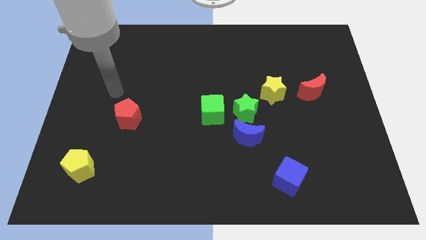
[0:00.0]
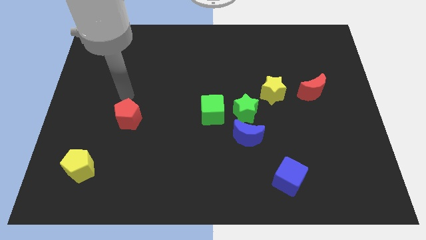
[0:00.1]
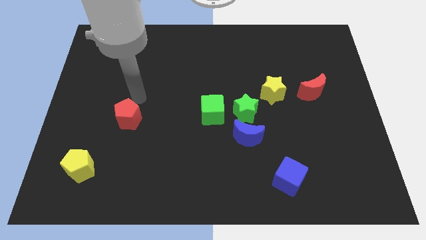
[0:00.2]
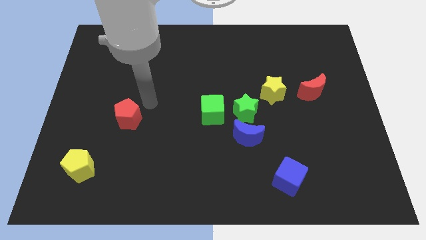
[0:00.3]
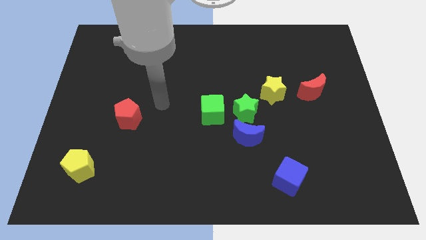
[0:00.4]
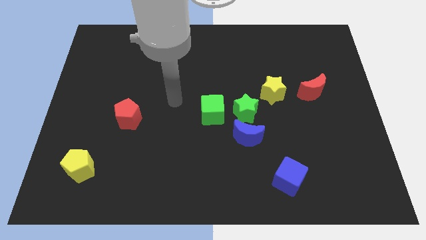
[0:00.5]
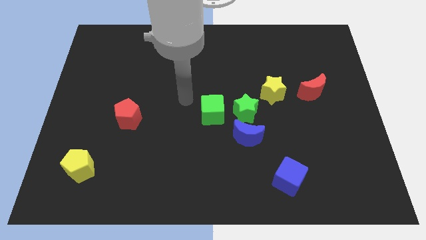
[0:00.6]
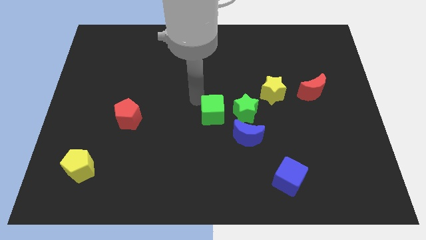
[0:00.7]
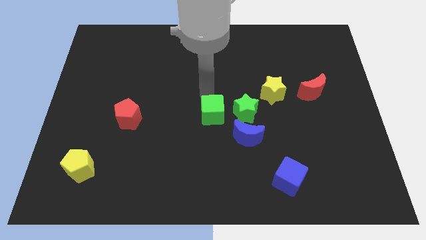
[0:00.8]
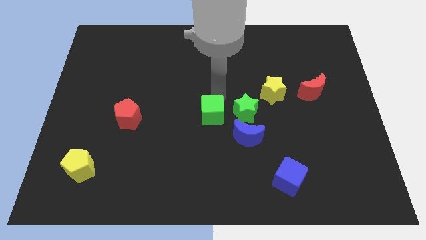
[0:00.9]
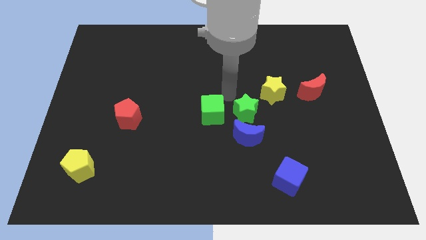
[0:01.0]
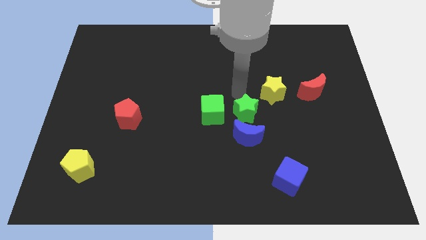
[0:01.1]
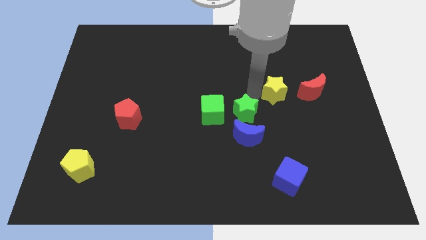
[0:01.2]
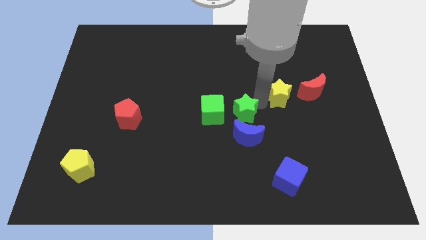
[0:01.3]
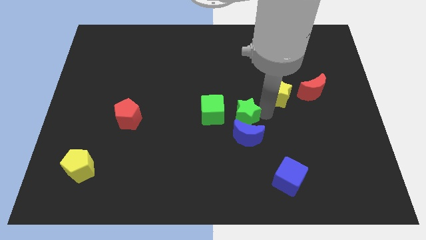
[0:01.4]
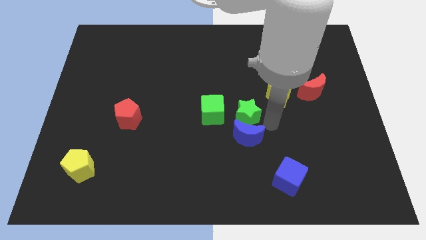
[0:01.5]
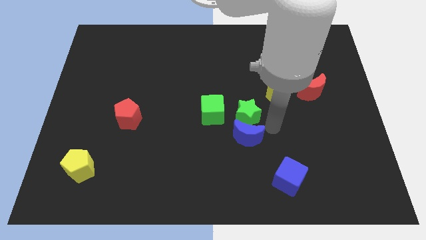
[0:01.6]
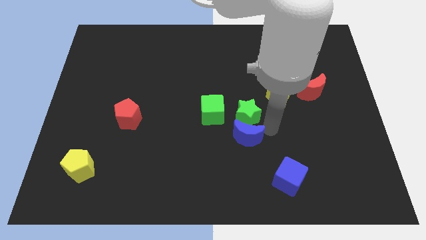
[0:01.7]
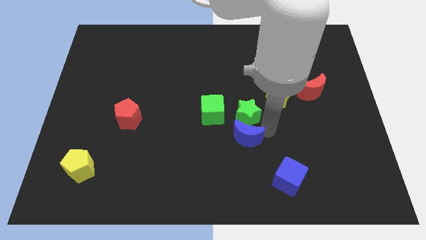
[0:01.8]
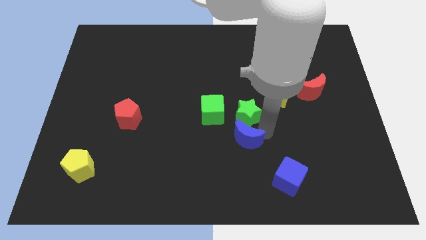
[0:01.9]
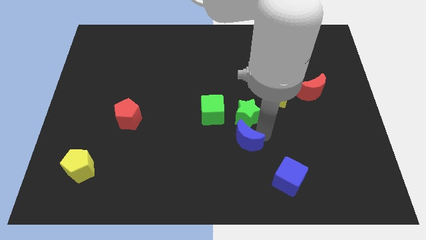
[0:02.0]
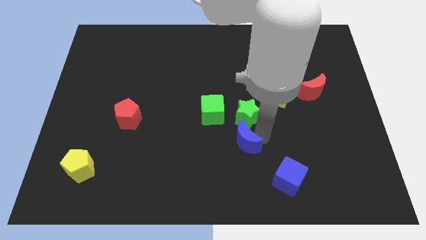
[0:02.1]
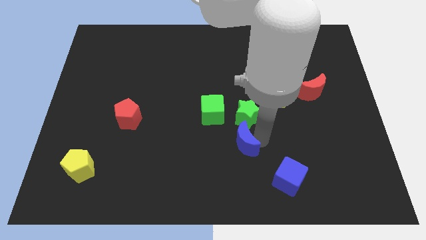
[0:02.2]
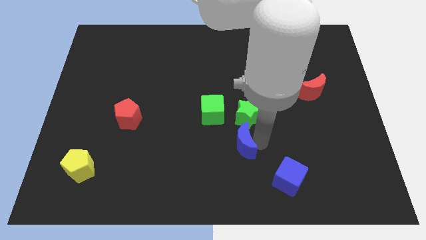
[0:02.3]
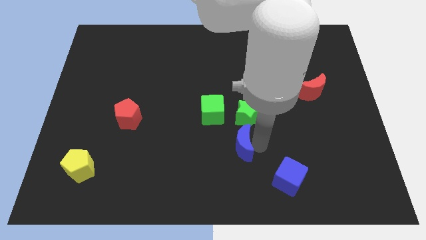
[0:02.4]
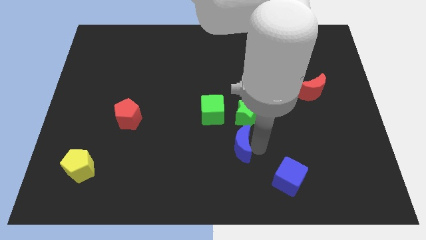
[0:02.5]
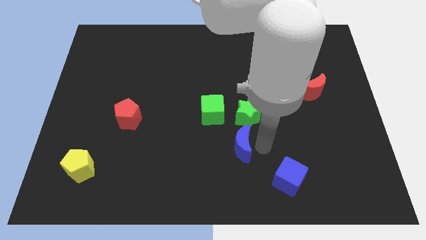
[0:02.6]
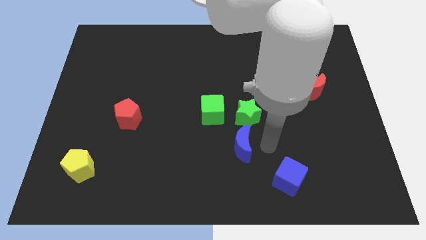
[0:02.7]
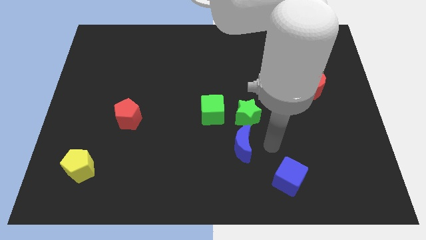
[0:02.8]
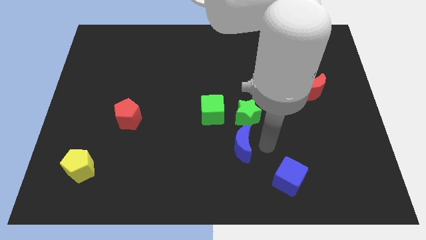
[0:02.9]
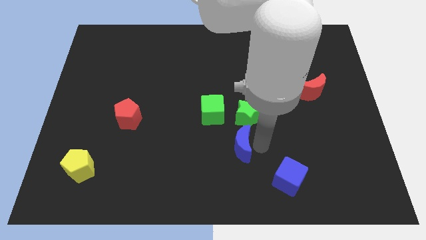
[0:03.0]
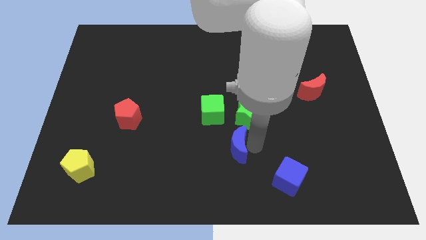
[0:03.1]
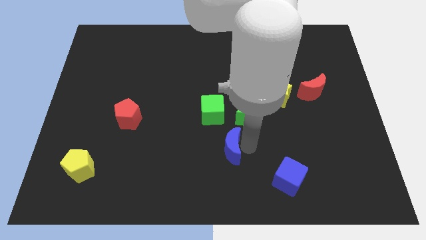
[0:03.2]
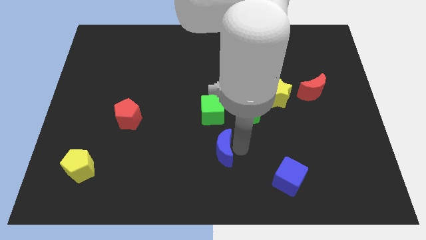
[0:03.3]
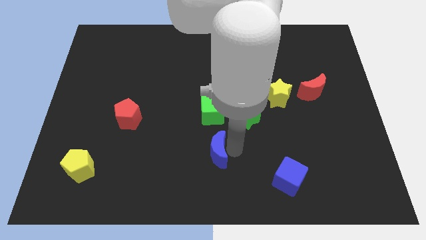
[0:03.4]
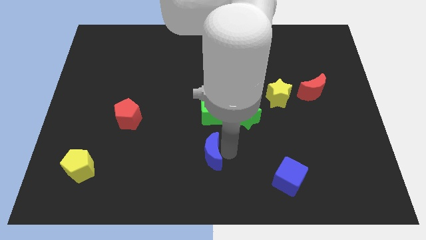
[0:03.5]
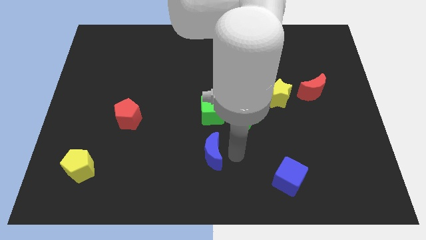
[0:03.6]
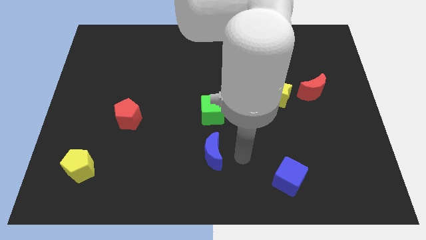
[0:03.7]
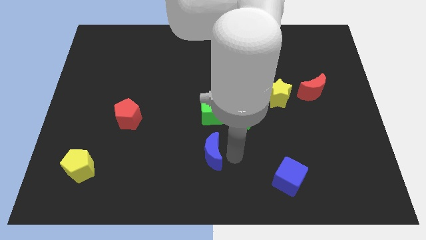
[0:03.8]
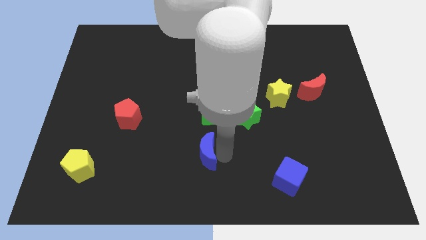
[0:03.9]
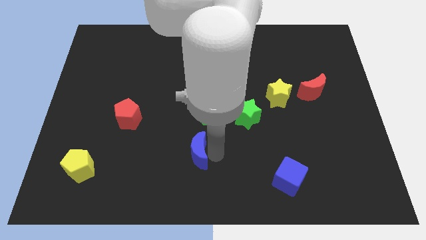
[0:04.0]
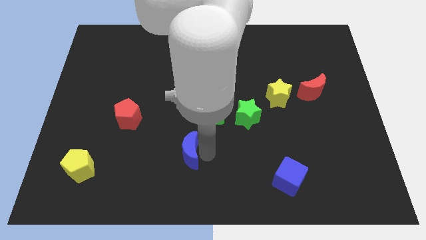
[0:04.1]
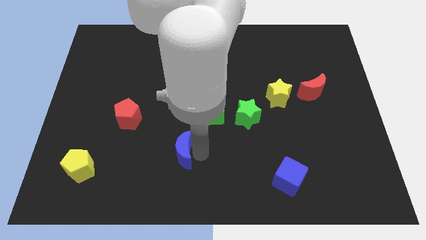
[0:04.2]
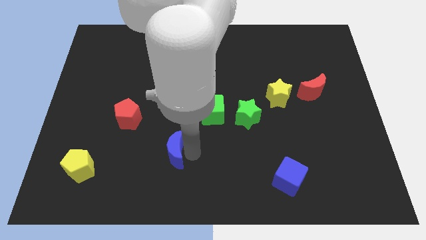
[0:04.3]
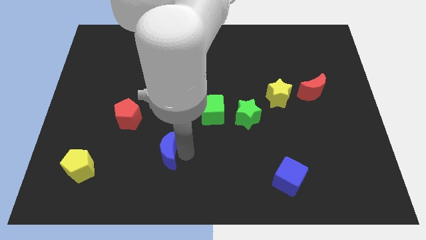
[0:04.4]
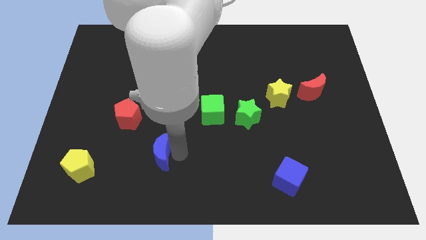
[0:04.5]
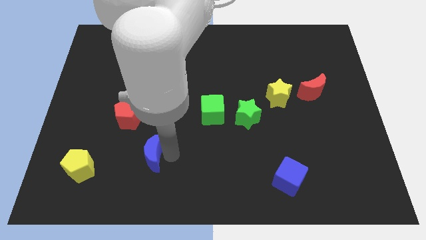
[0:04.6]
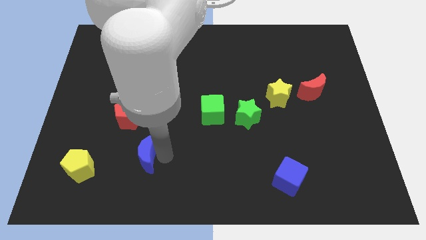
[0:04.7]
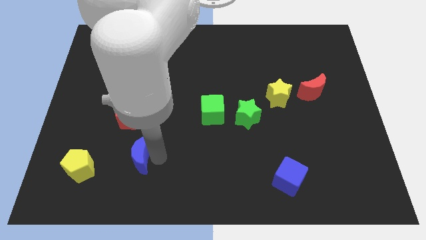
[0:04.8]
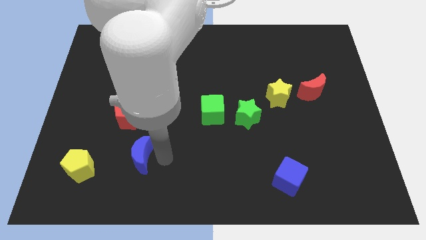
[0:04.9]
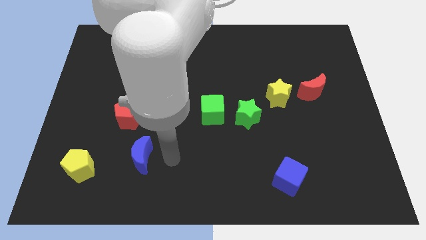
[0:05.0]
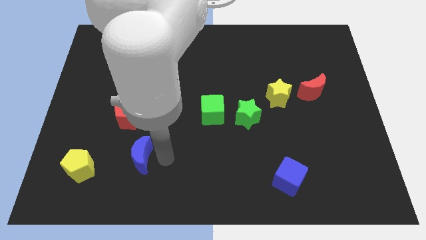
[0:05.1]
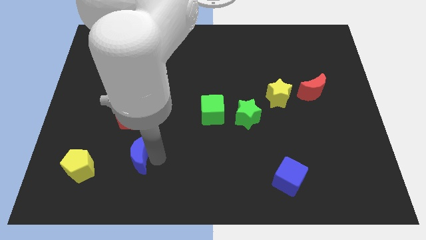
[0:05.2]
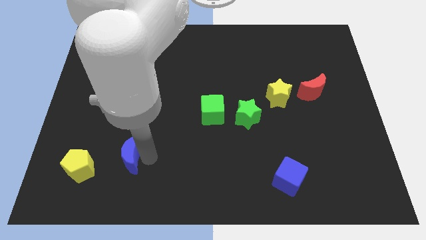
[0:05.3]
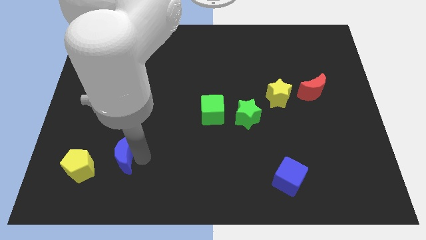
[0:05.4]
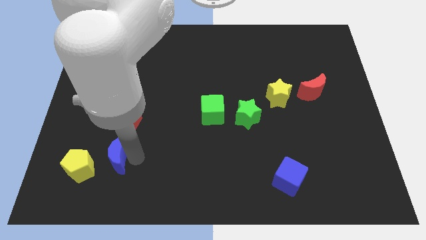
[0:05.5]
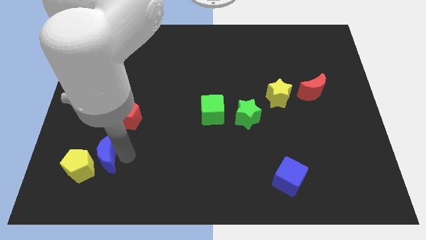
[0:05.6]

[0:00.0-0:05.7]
put the blue moon to the yellow pentagon

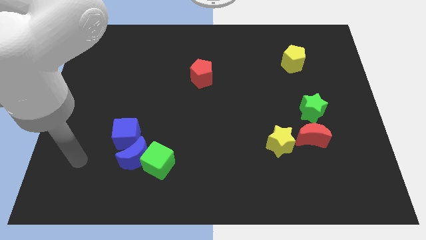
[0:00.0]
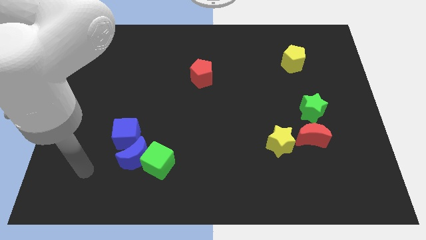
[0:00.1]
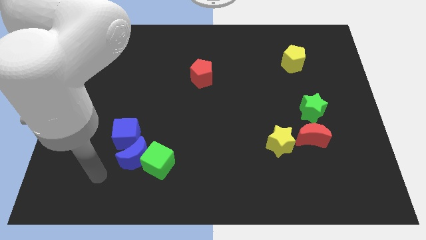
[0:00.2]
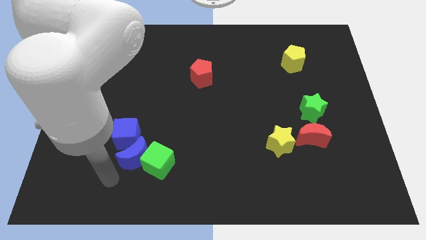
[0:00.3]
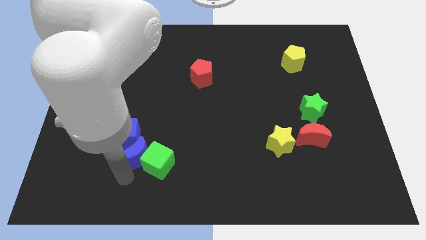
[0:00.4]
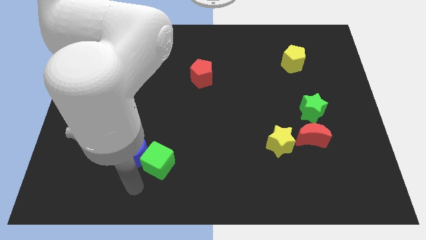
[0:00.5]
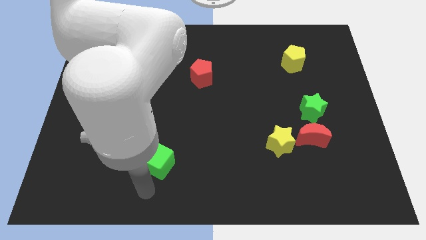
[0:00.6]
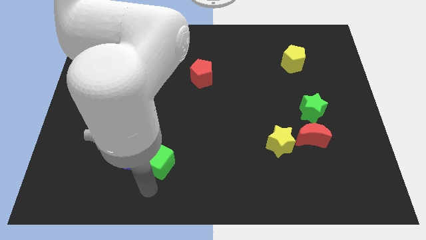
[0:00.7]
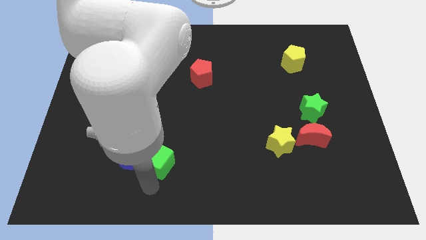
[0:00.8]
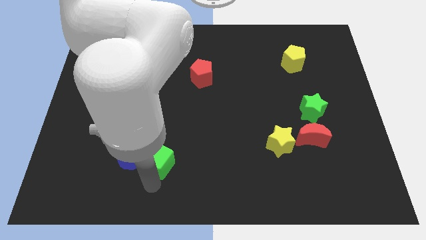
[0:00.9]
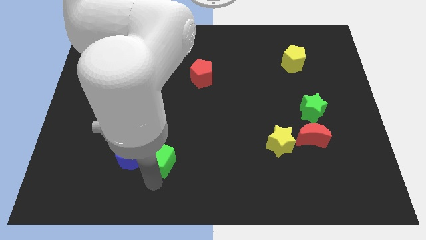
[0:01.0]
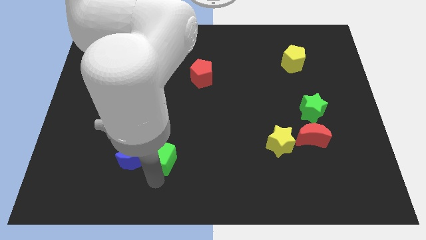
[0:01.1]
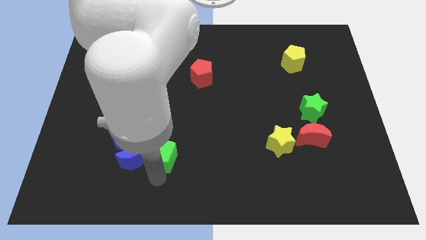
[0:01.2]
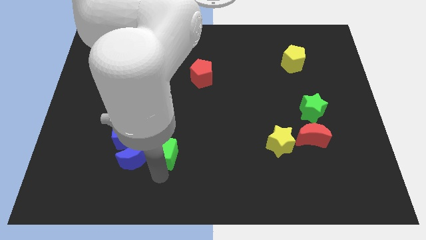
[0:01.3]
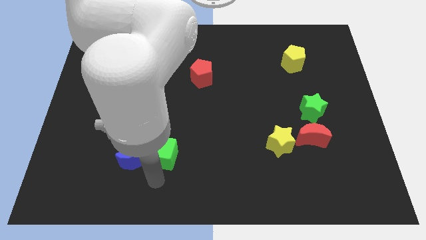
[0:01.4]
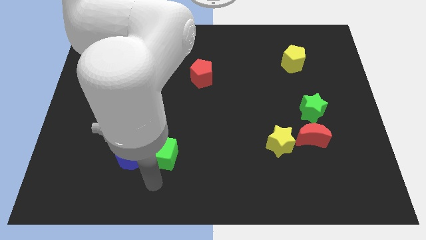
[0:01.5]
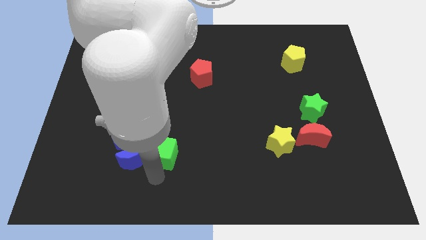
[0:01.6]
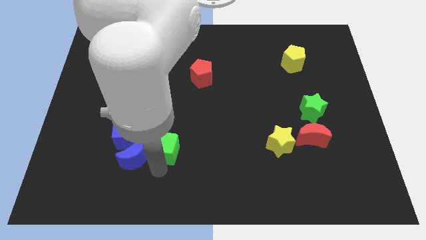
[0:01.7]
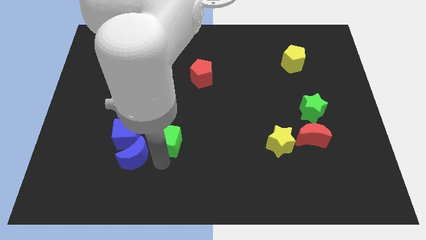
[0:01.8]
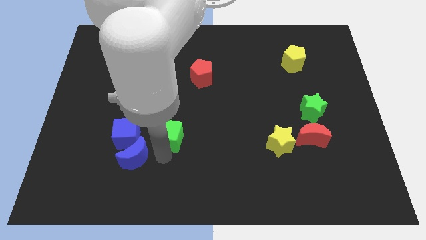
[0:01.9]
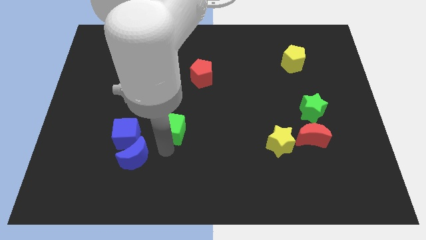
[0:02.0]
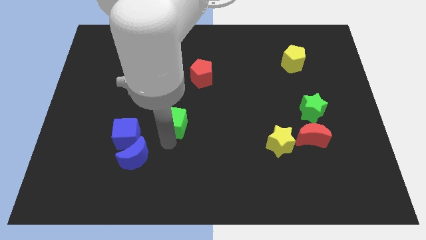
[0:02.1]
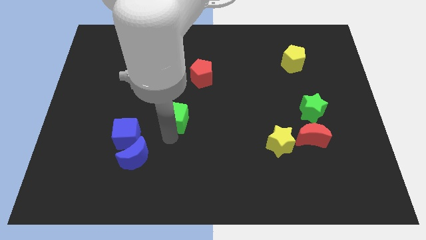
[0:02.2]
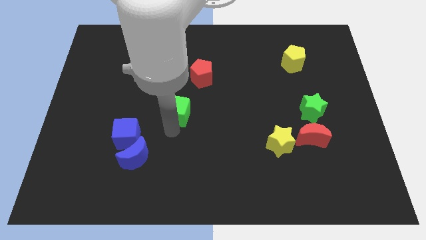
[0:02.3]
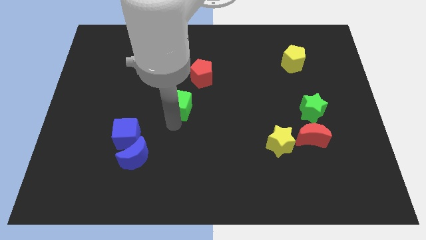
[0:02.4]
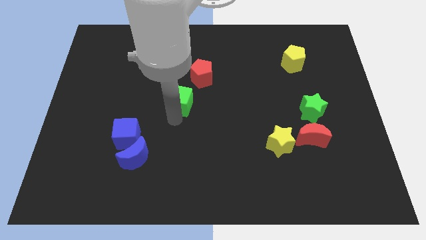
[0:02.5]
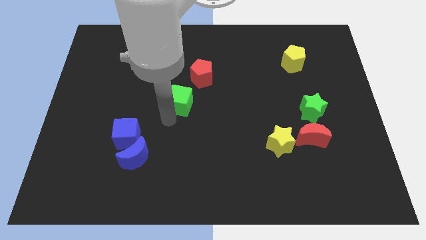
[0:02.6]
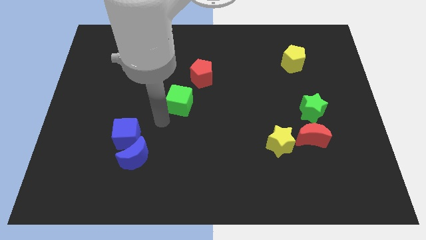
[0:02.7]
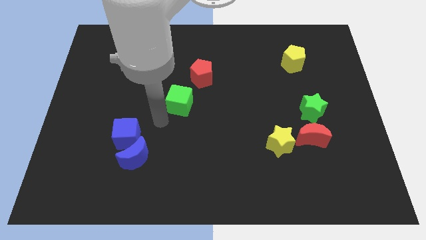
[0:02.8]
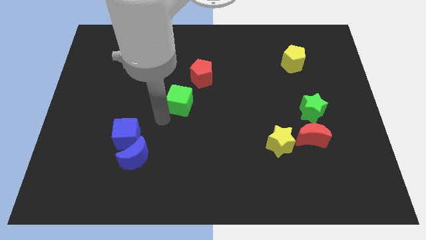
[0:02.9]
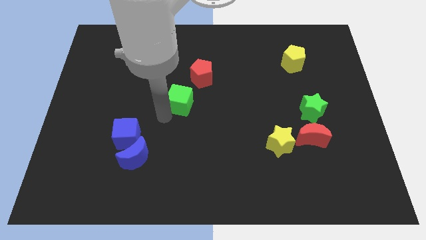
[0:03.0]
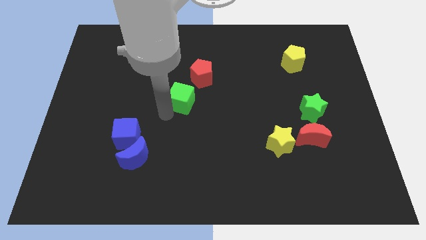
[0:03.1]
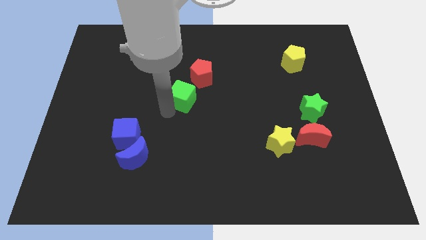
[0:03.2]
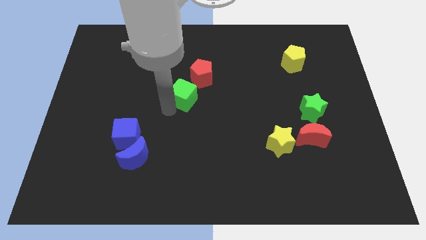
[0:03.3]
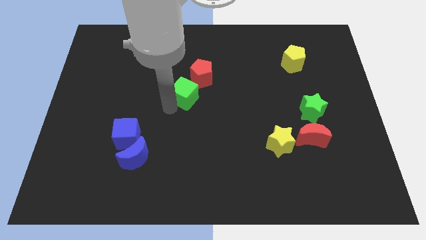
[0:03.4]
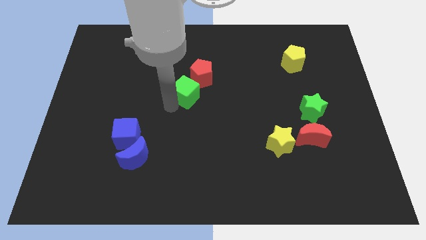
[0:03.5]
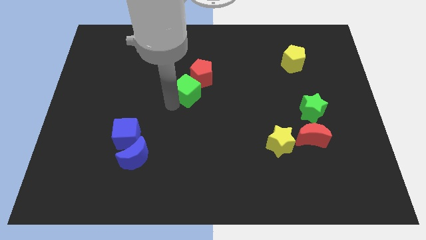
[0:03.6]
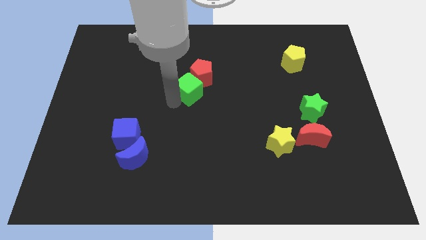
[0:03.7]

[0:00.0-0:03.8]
push the green cube next to the red pentagon
